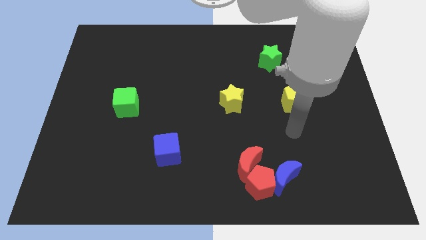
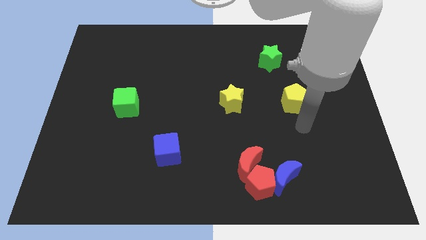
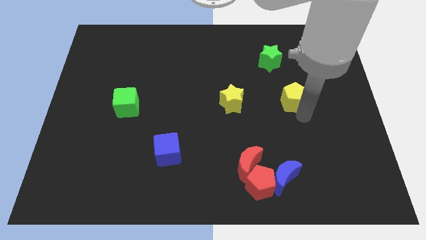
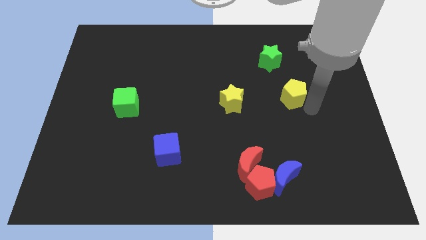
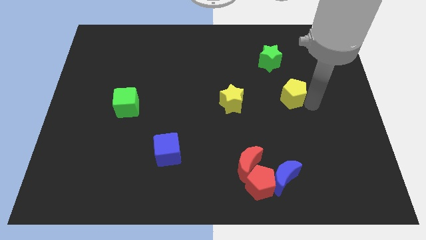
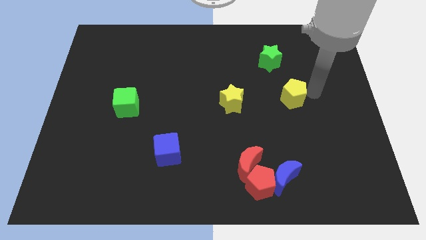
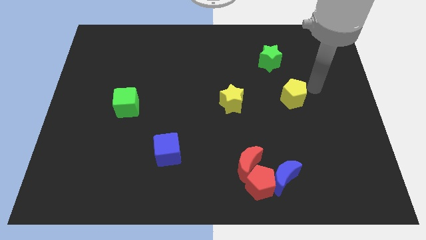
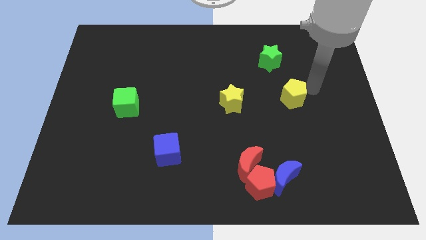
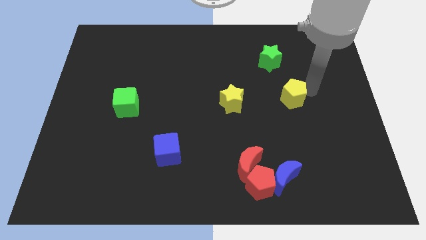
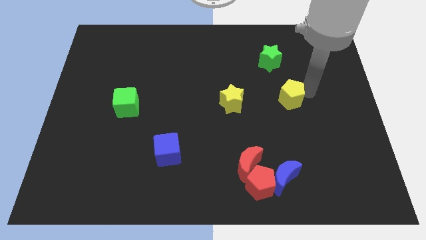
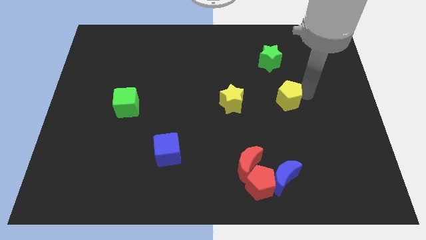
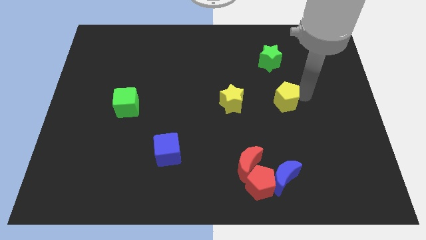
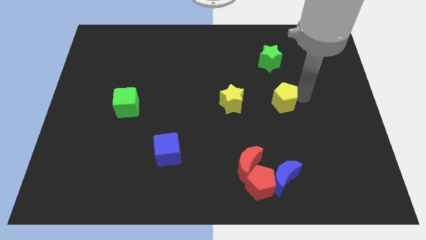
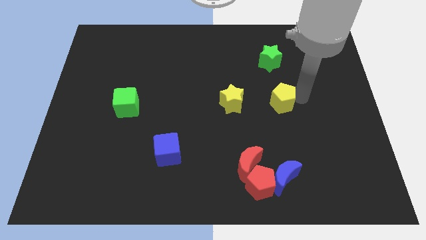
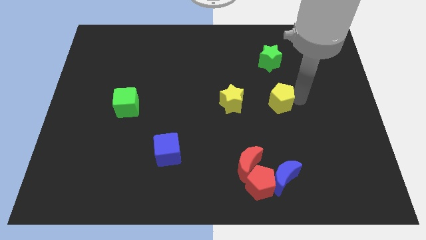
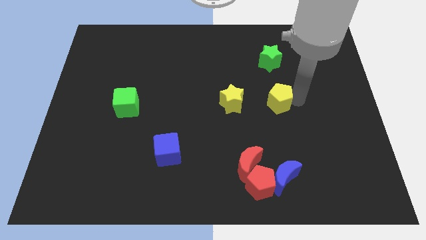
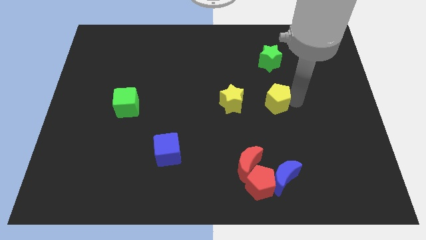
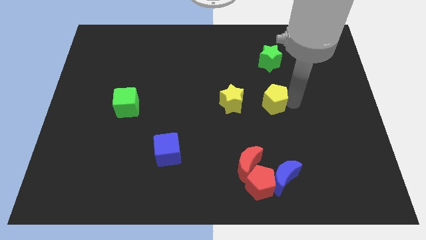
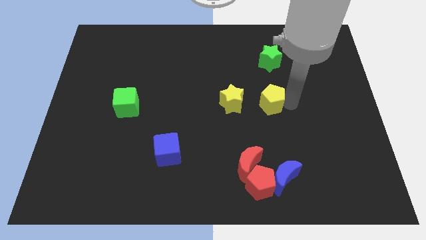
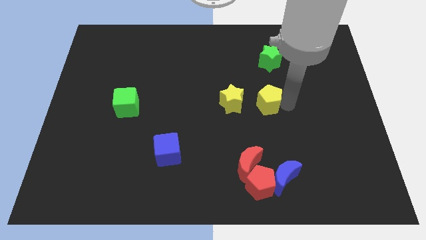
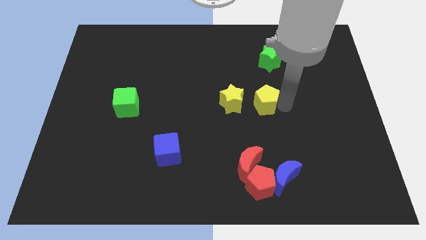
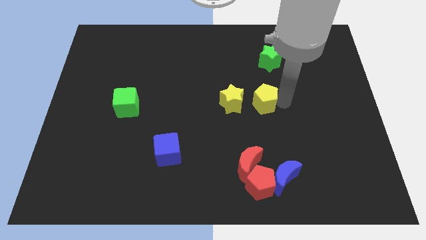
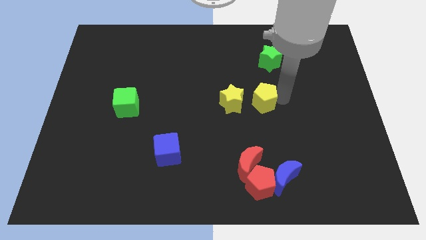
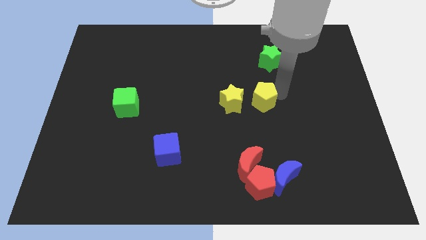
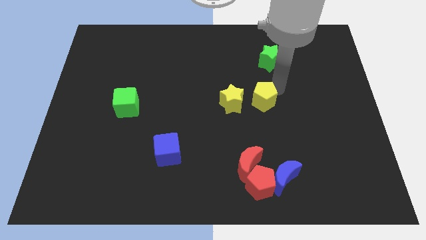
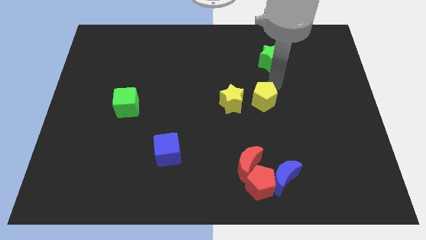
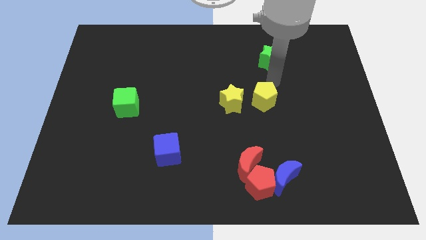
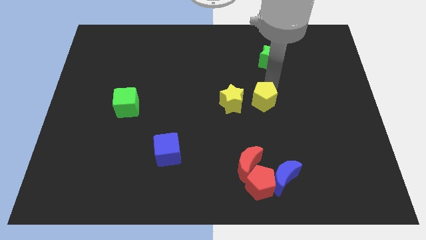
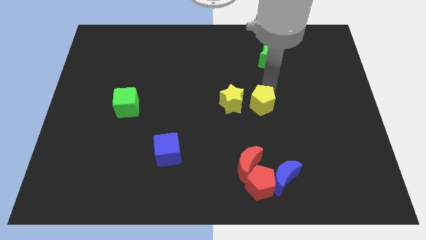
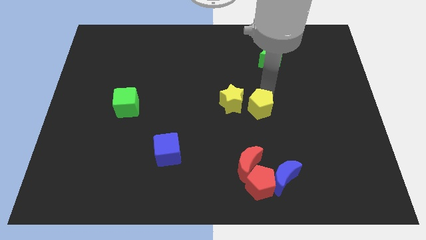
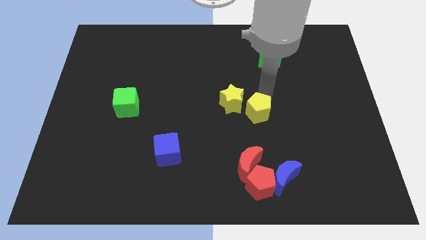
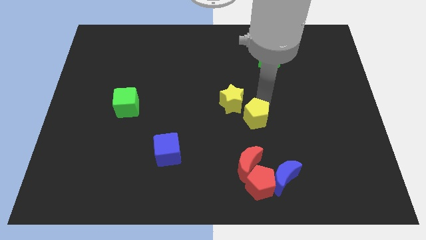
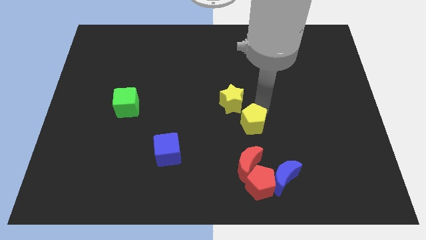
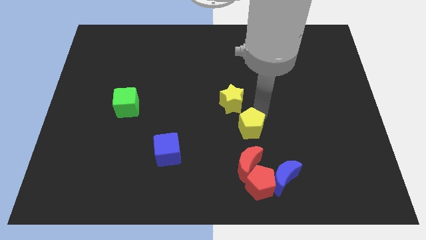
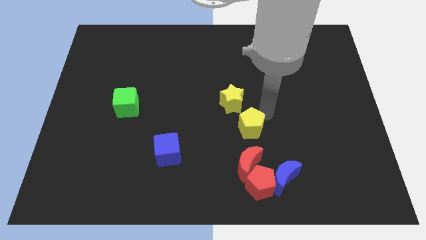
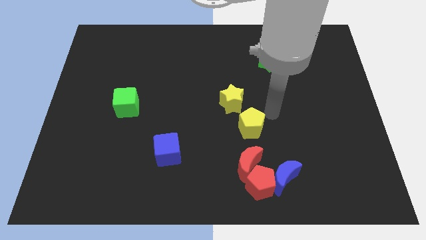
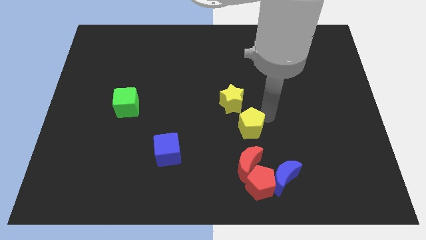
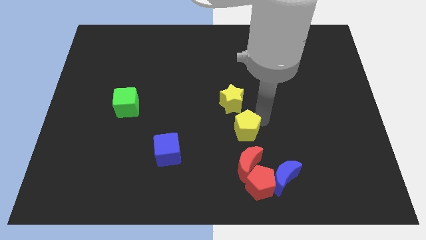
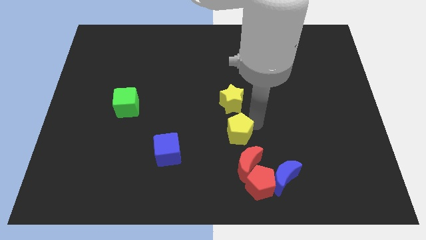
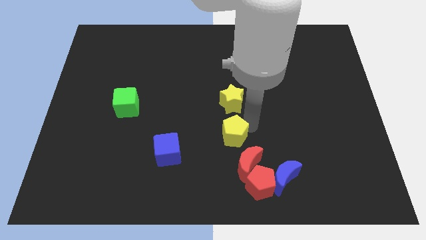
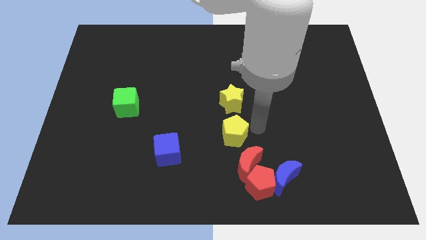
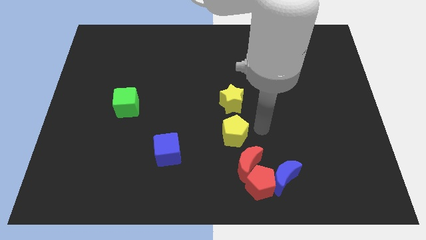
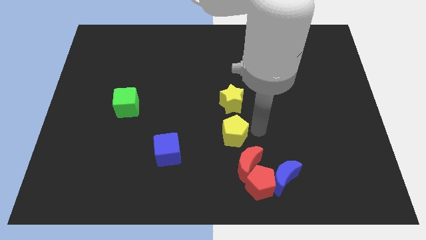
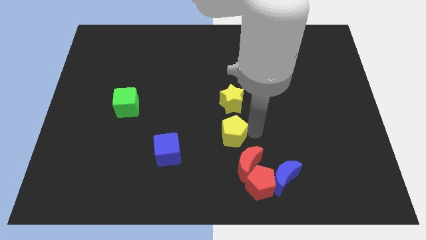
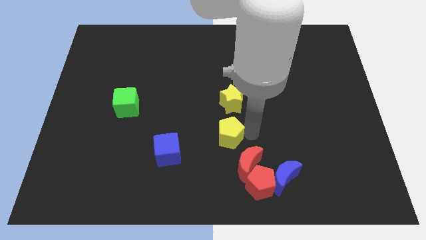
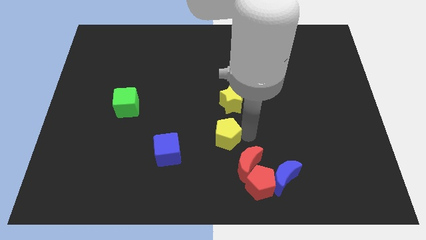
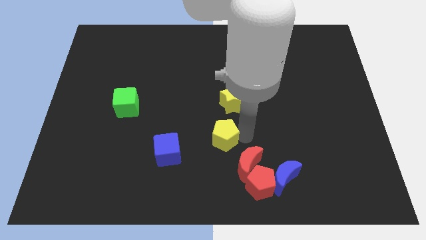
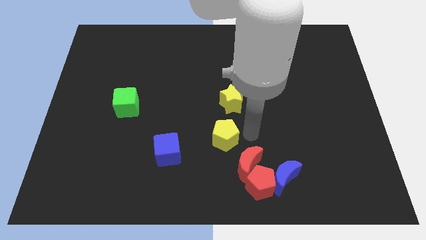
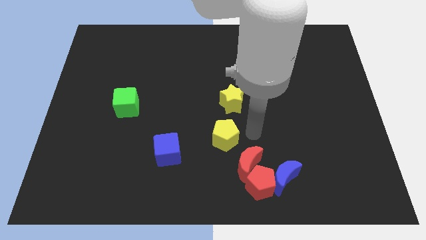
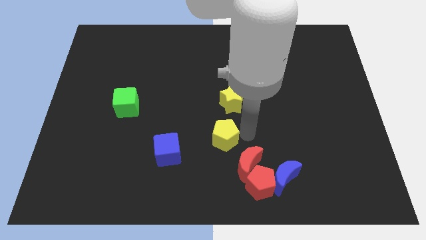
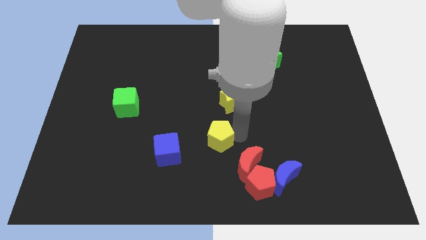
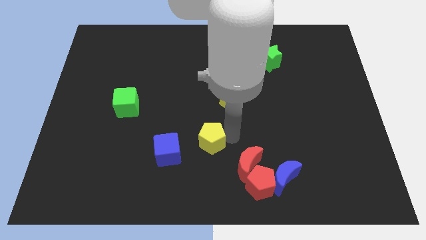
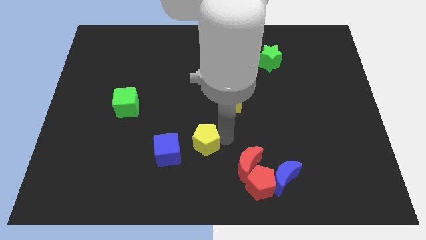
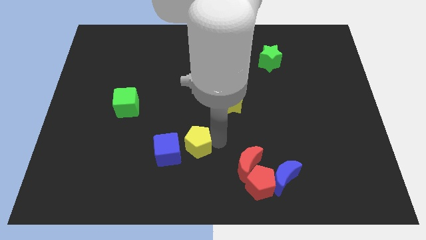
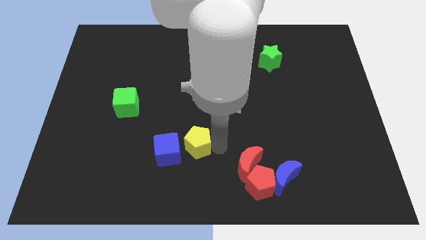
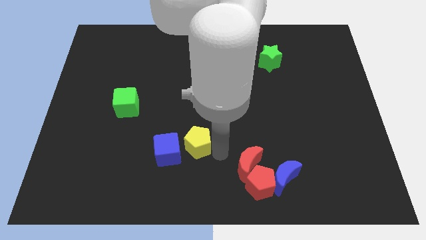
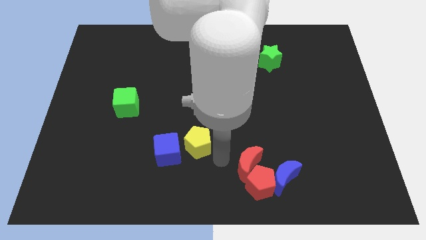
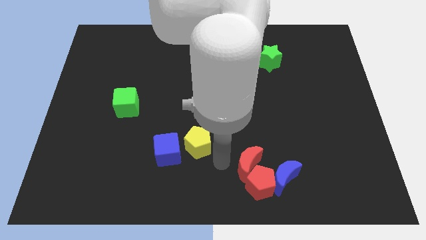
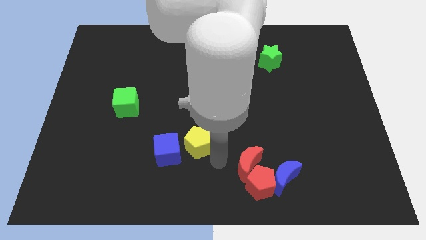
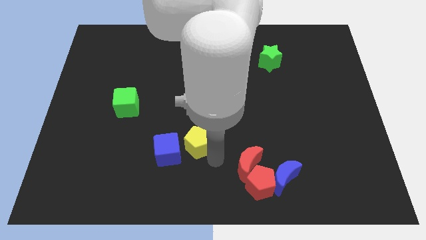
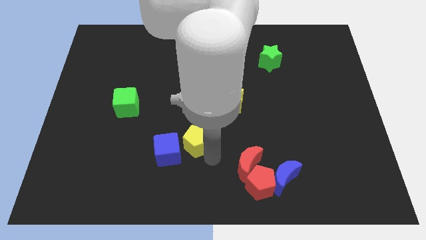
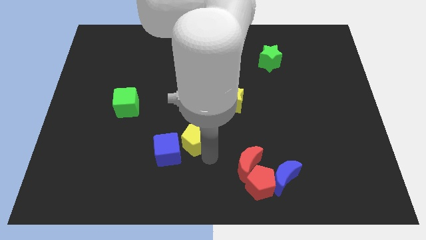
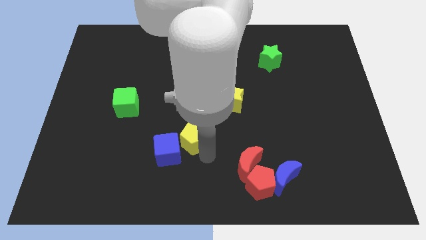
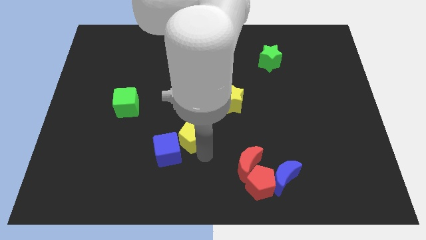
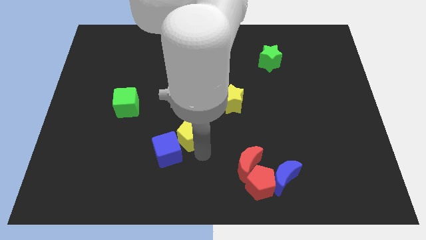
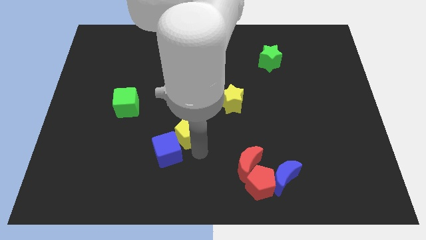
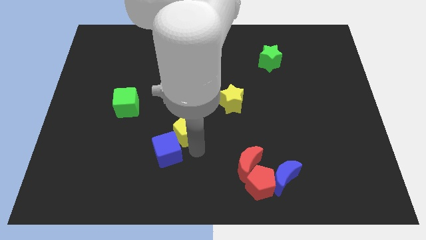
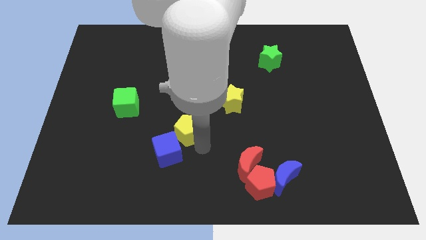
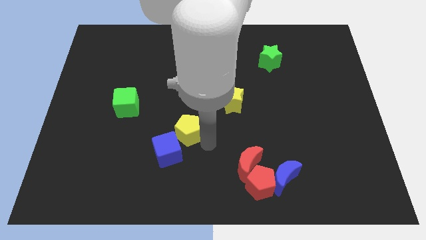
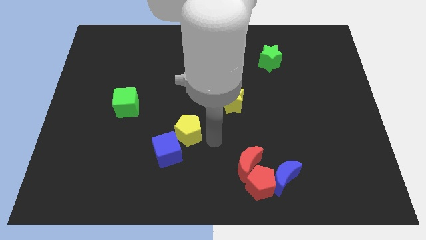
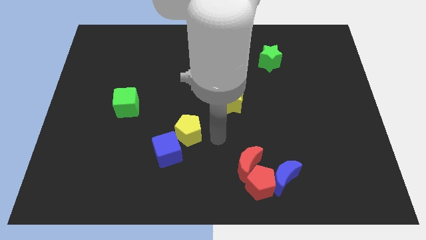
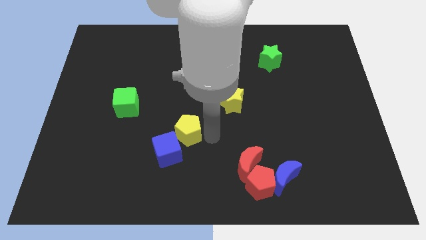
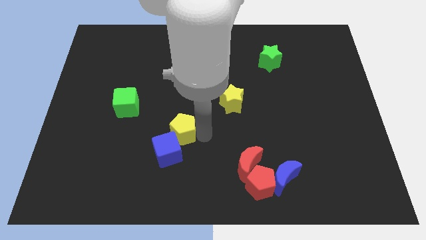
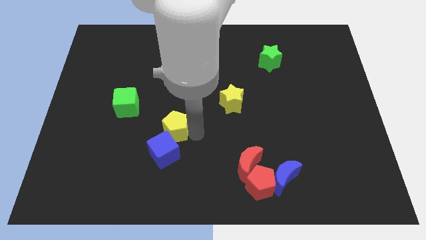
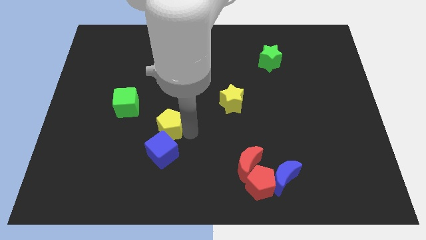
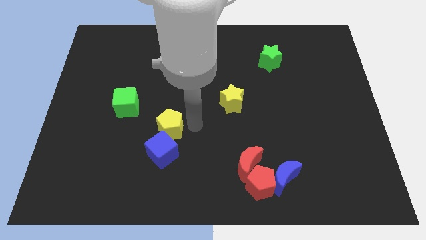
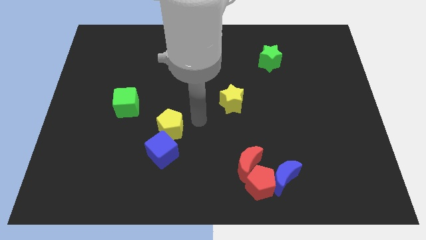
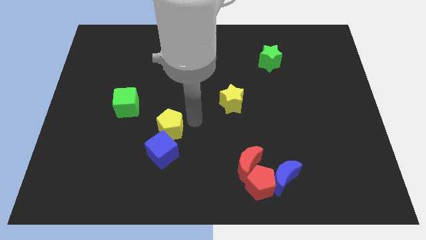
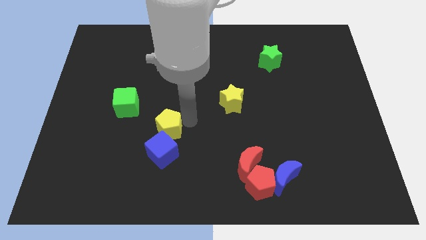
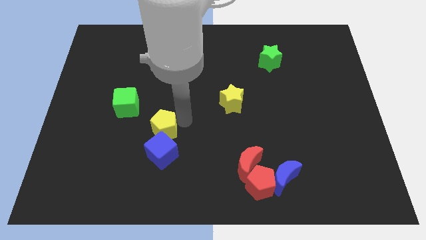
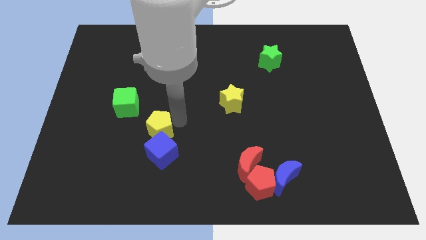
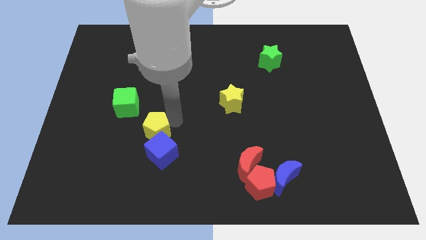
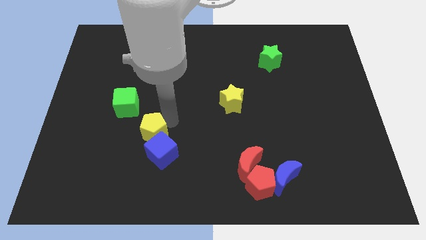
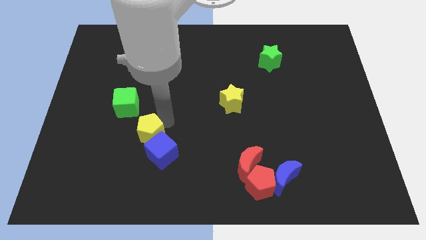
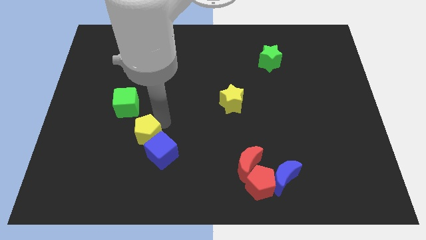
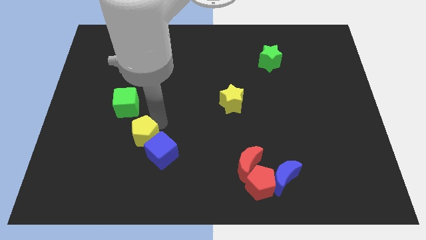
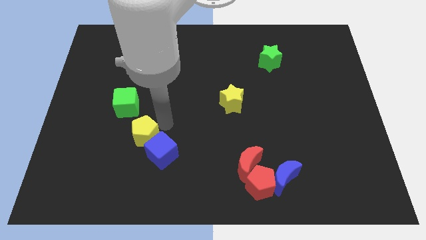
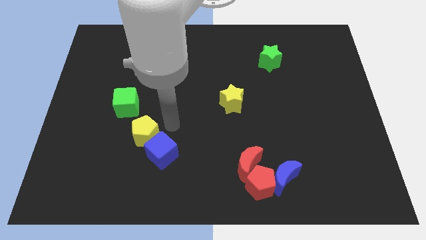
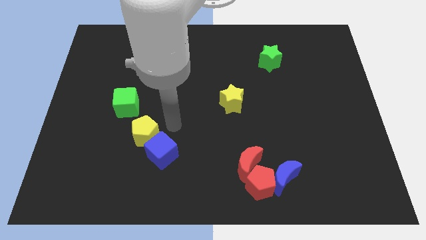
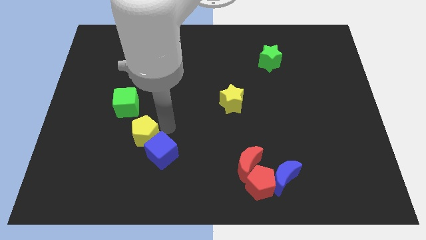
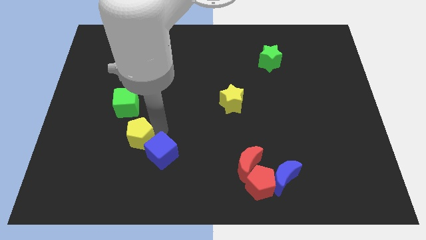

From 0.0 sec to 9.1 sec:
push the yellow pentagon to the bottom side of the green cube
